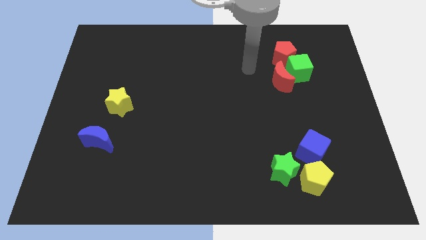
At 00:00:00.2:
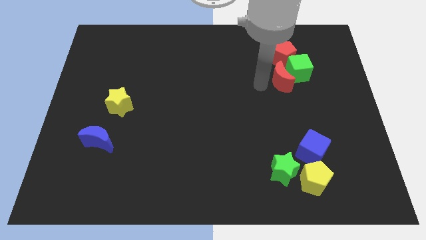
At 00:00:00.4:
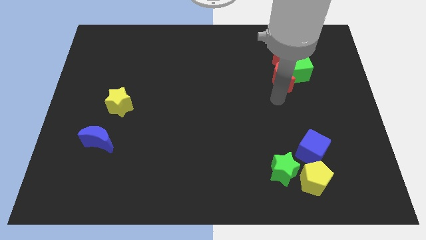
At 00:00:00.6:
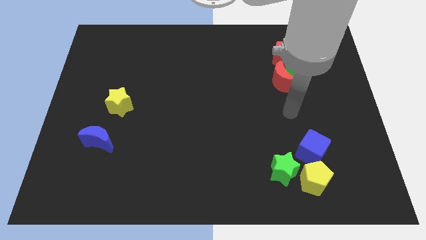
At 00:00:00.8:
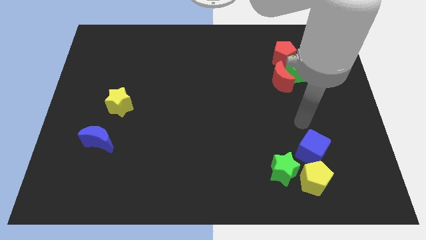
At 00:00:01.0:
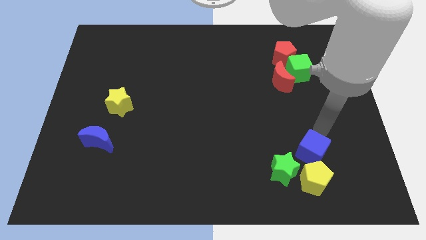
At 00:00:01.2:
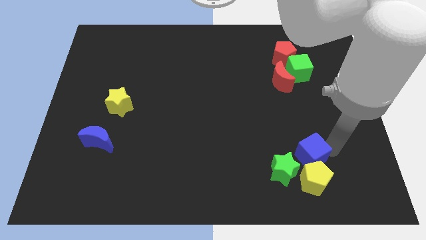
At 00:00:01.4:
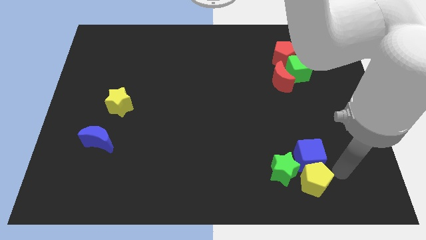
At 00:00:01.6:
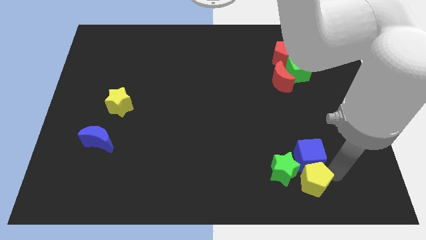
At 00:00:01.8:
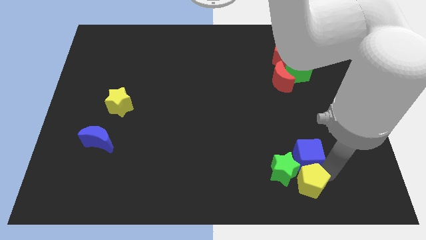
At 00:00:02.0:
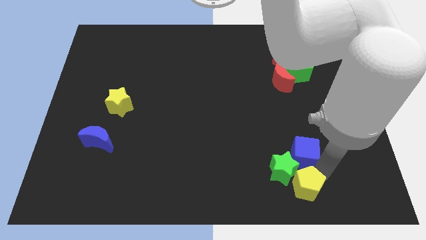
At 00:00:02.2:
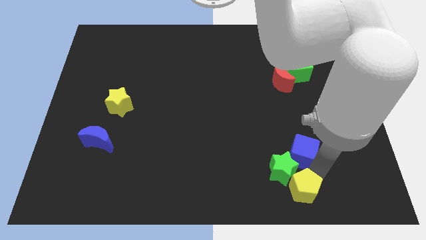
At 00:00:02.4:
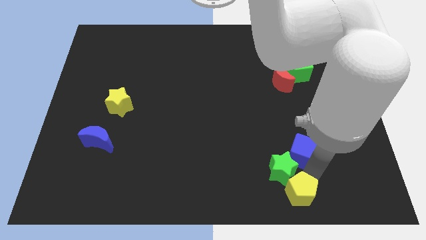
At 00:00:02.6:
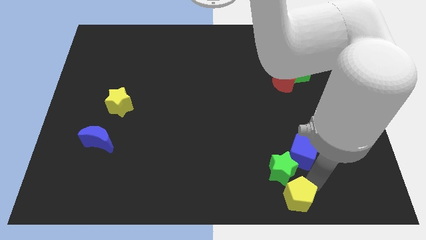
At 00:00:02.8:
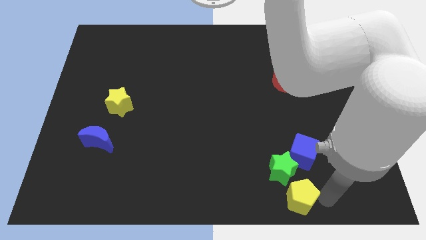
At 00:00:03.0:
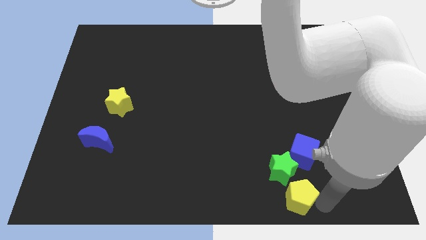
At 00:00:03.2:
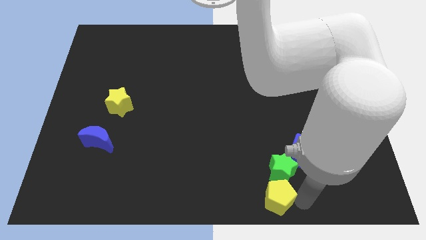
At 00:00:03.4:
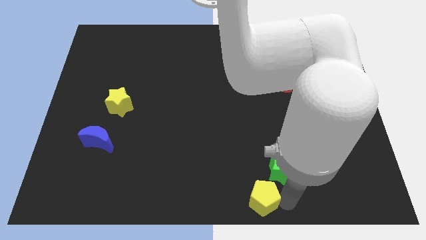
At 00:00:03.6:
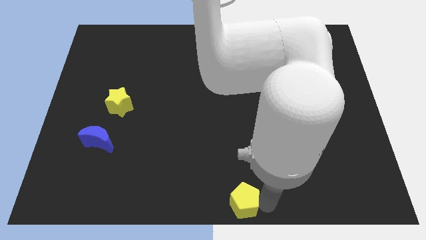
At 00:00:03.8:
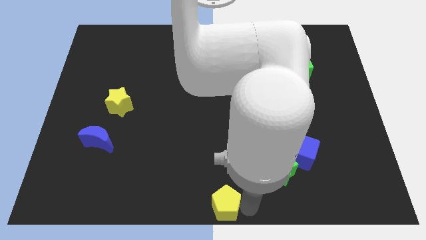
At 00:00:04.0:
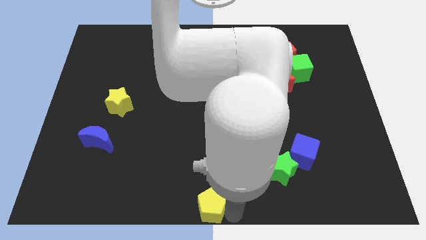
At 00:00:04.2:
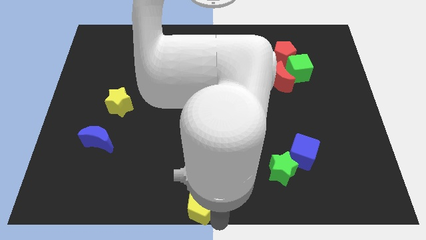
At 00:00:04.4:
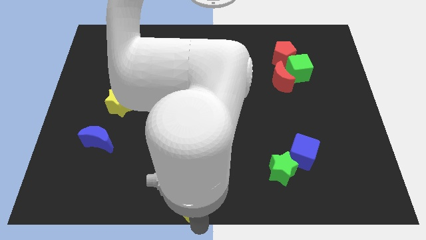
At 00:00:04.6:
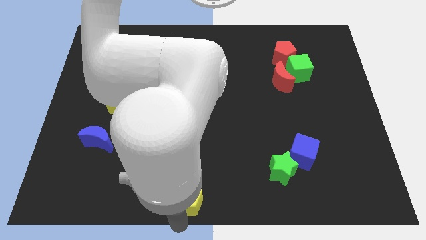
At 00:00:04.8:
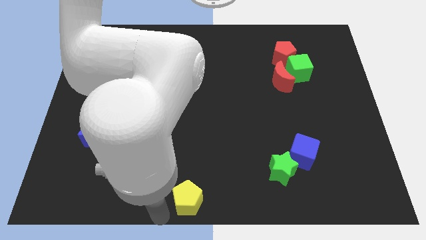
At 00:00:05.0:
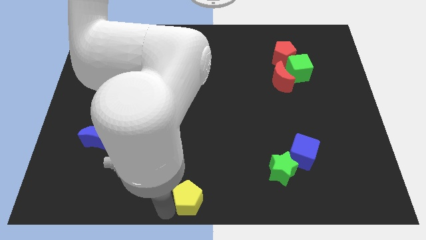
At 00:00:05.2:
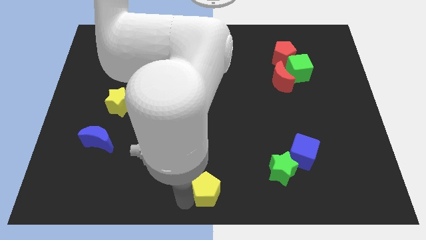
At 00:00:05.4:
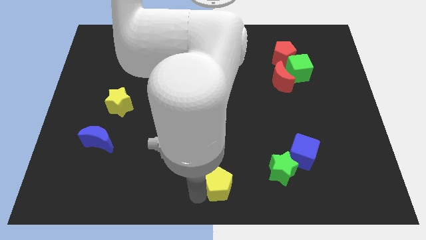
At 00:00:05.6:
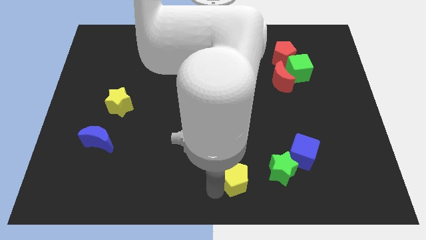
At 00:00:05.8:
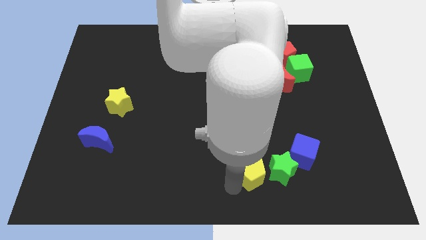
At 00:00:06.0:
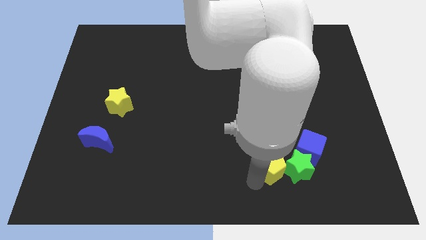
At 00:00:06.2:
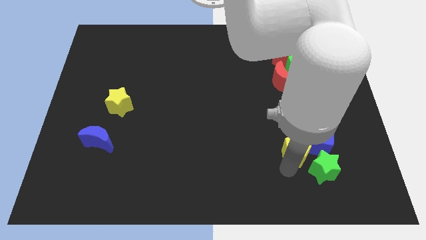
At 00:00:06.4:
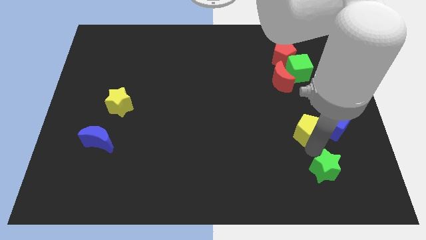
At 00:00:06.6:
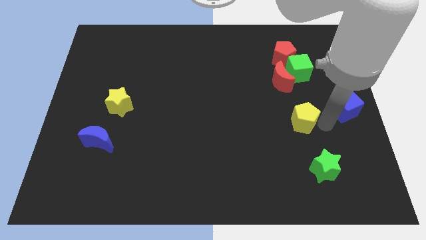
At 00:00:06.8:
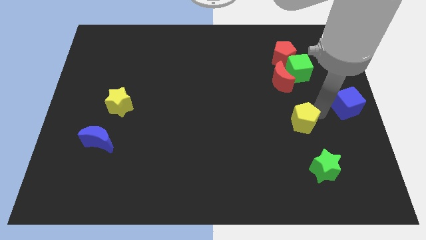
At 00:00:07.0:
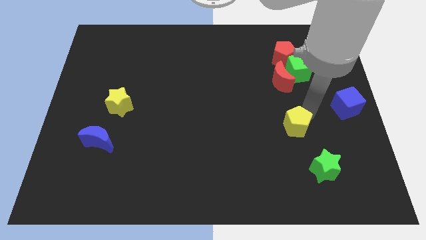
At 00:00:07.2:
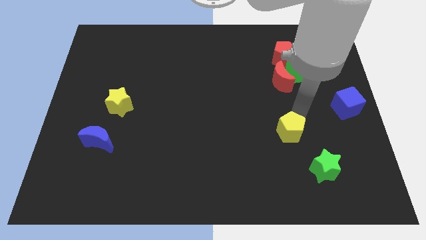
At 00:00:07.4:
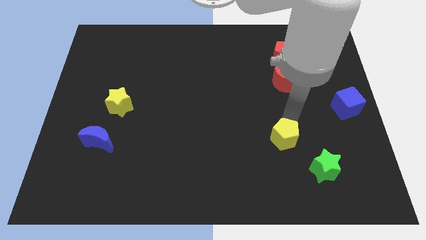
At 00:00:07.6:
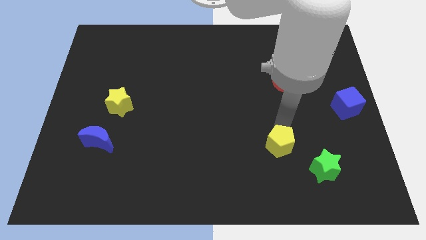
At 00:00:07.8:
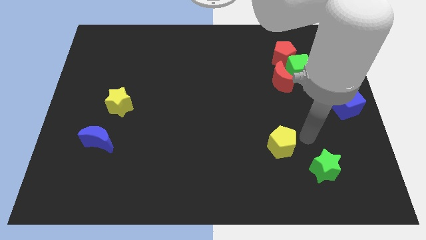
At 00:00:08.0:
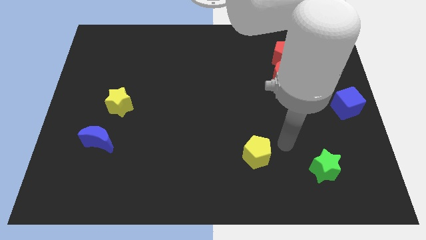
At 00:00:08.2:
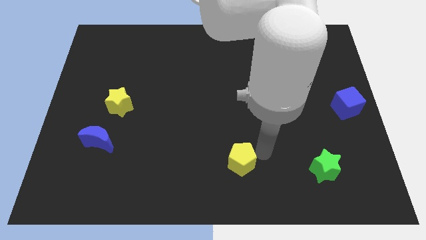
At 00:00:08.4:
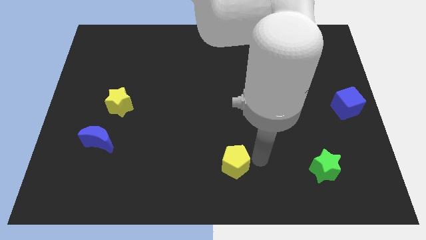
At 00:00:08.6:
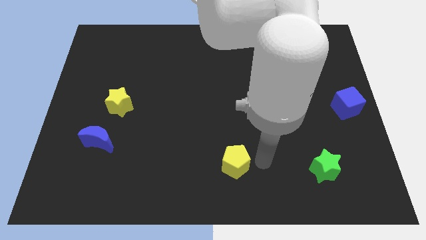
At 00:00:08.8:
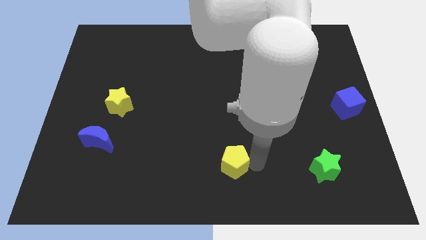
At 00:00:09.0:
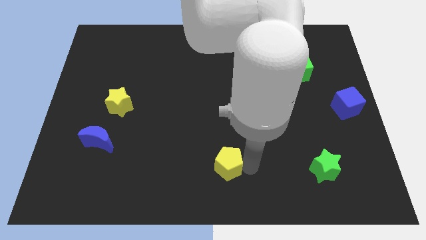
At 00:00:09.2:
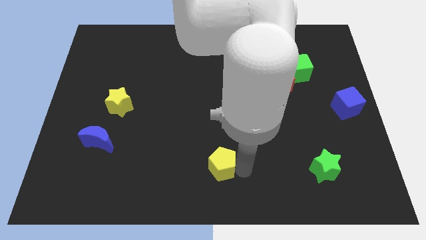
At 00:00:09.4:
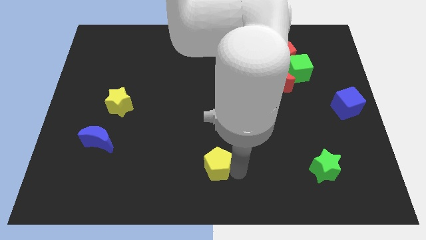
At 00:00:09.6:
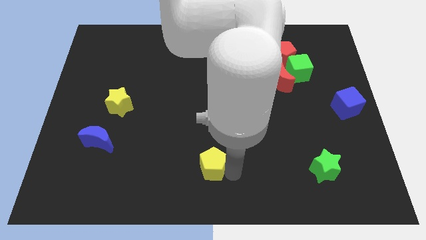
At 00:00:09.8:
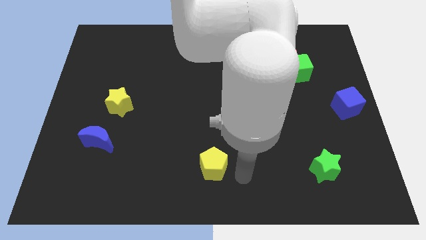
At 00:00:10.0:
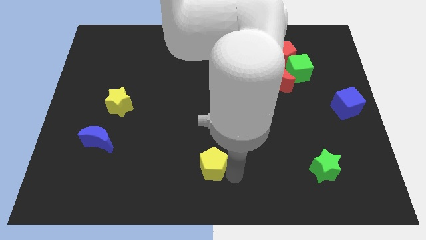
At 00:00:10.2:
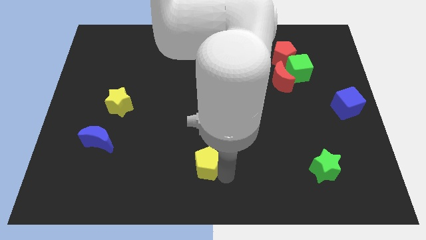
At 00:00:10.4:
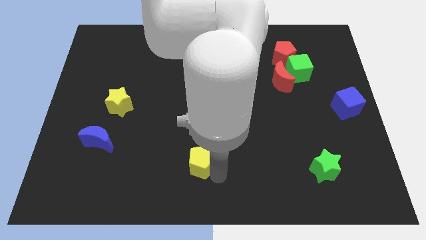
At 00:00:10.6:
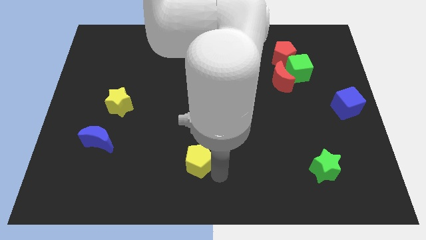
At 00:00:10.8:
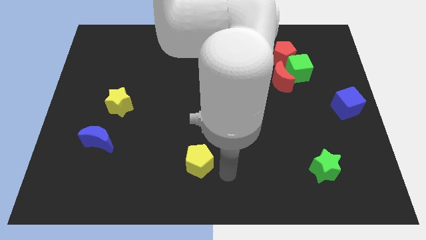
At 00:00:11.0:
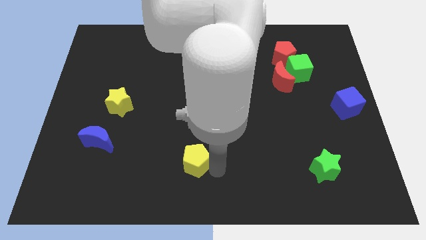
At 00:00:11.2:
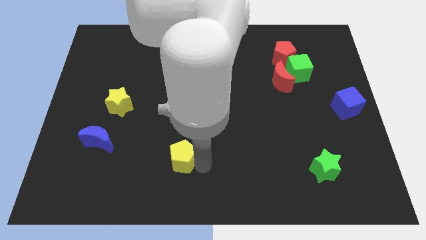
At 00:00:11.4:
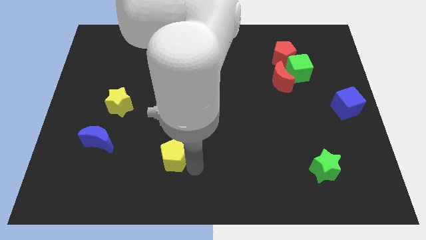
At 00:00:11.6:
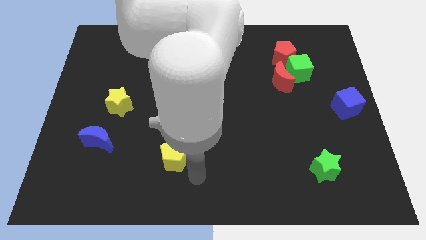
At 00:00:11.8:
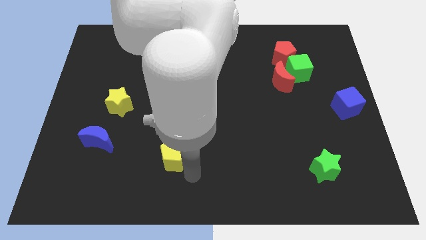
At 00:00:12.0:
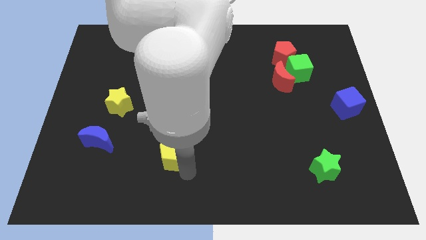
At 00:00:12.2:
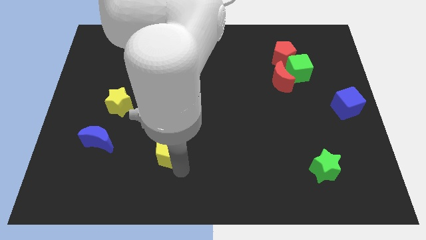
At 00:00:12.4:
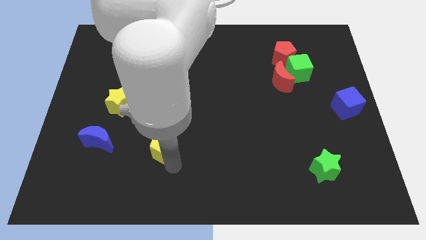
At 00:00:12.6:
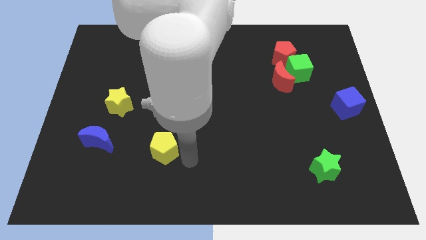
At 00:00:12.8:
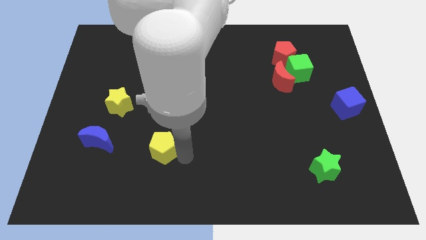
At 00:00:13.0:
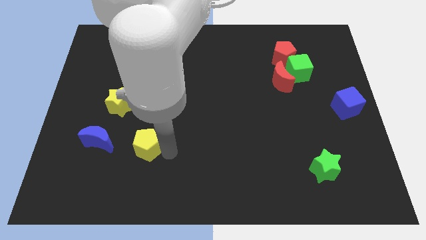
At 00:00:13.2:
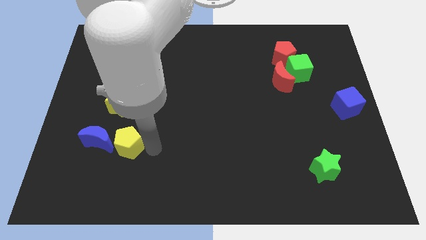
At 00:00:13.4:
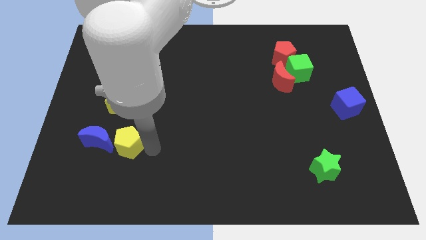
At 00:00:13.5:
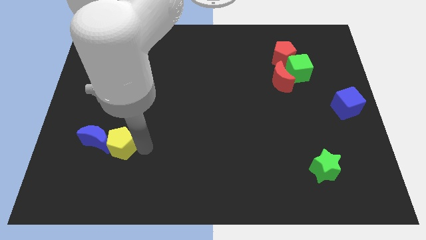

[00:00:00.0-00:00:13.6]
slide the yellow pentagon close to the blue moon
